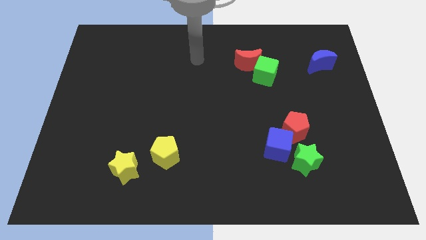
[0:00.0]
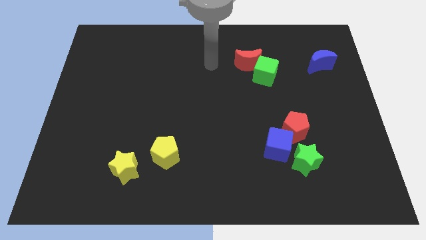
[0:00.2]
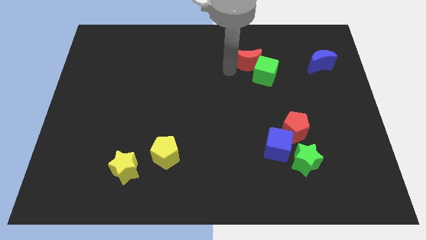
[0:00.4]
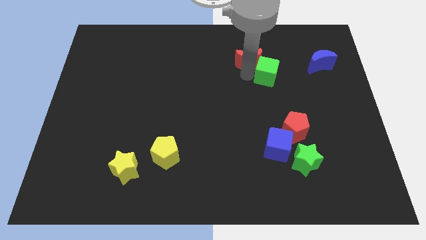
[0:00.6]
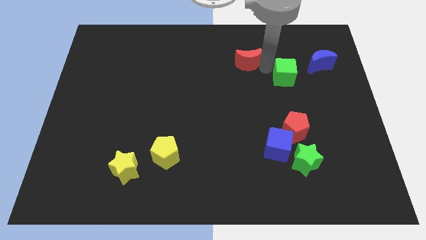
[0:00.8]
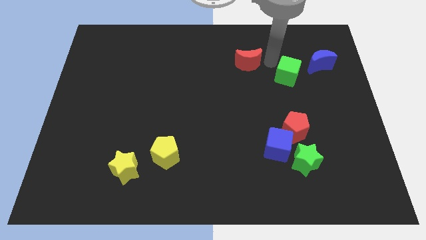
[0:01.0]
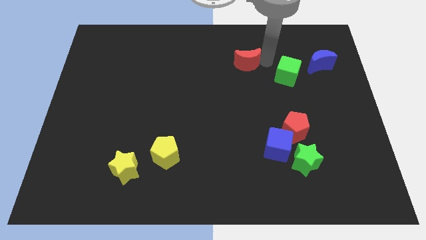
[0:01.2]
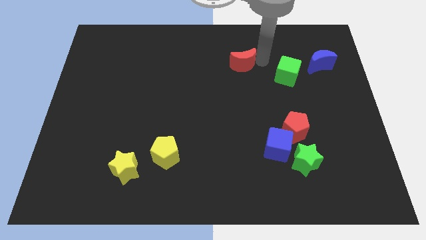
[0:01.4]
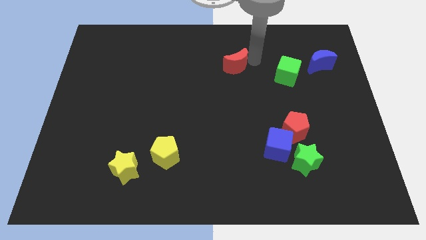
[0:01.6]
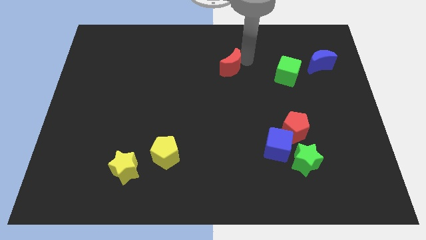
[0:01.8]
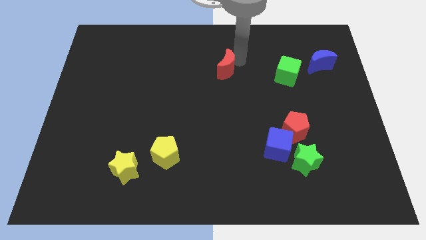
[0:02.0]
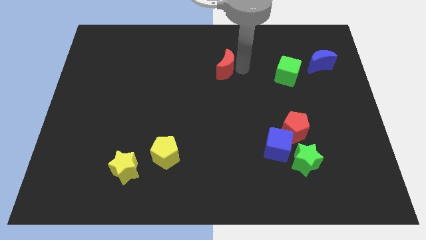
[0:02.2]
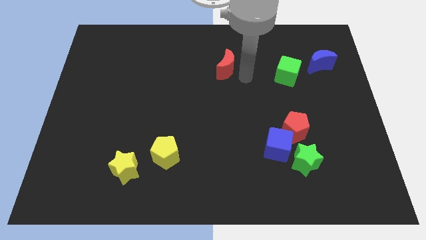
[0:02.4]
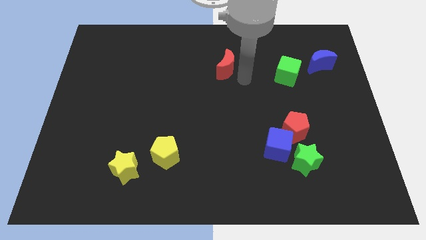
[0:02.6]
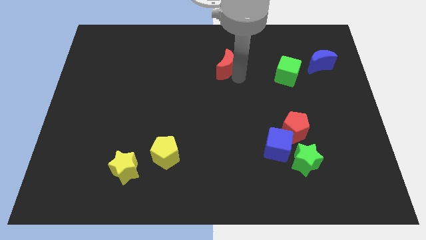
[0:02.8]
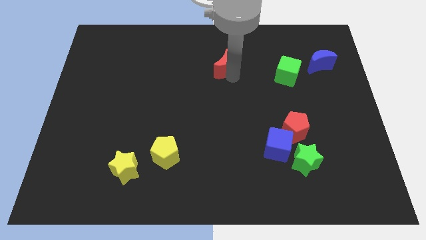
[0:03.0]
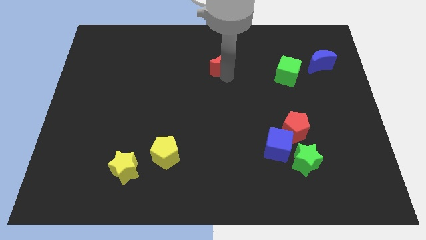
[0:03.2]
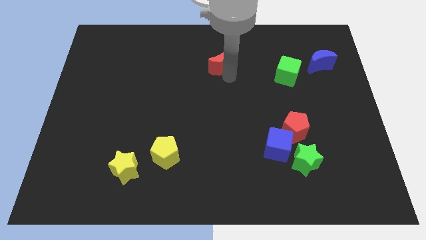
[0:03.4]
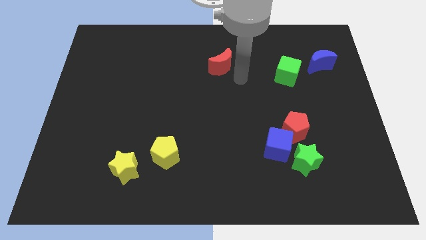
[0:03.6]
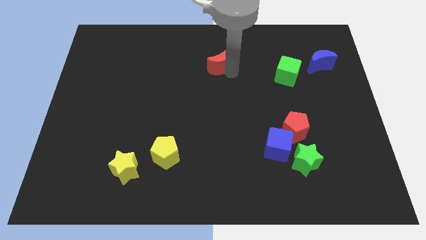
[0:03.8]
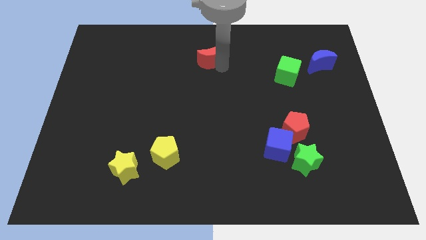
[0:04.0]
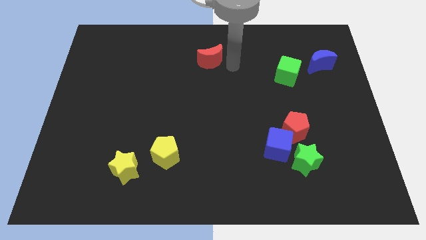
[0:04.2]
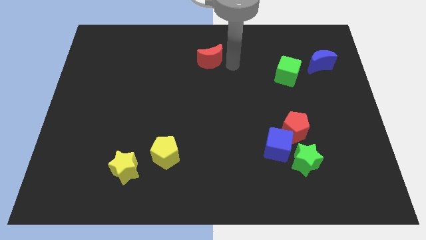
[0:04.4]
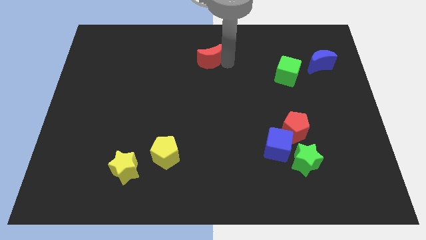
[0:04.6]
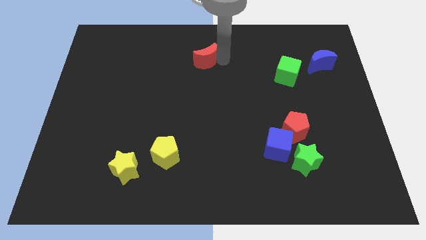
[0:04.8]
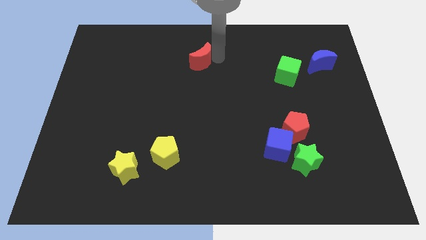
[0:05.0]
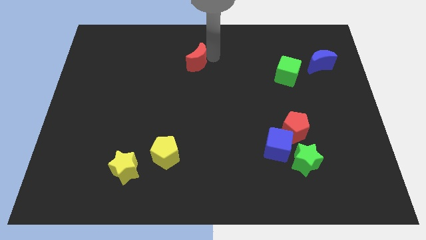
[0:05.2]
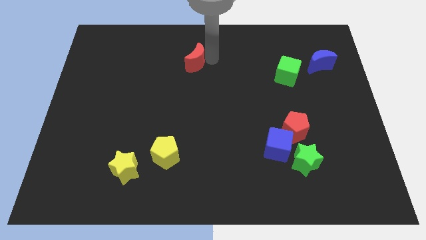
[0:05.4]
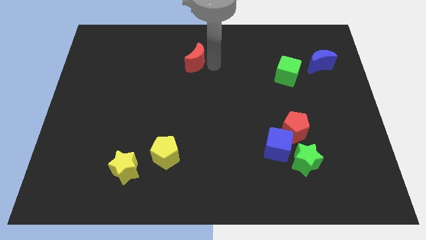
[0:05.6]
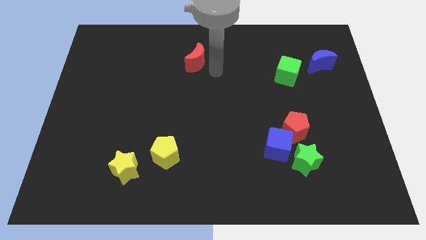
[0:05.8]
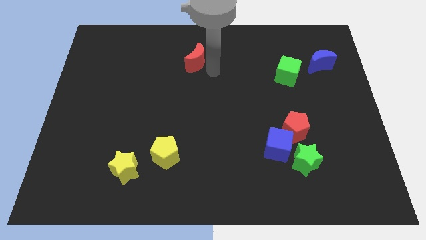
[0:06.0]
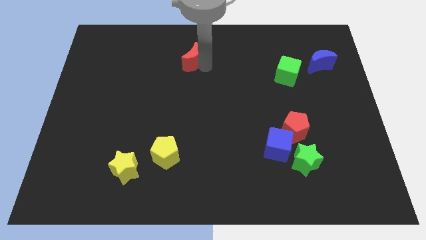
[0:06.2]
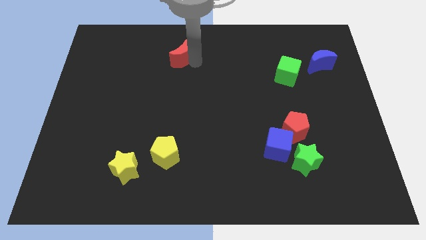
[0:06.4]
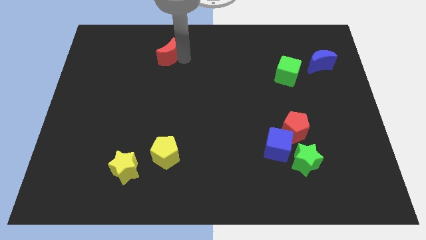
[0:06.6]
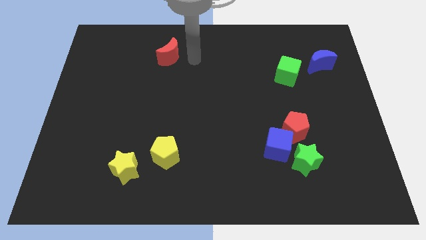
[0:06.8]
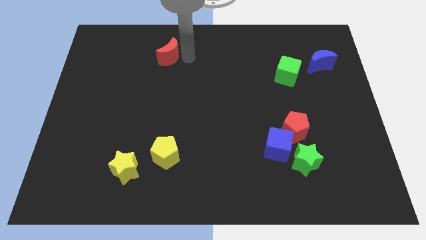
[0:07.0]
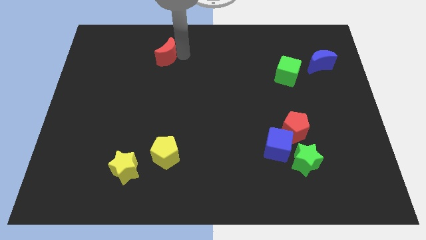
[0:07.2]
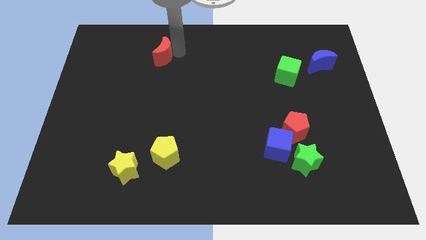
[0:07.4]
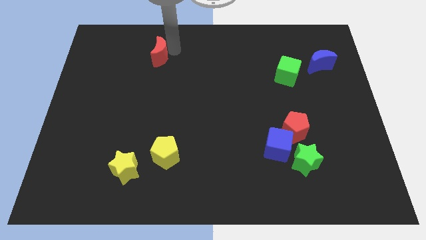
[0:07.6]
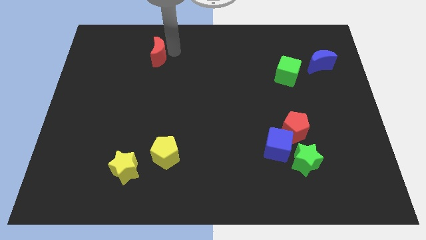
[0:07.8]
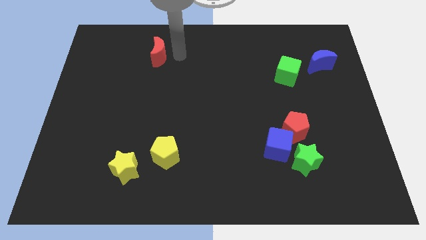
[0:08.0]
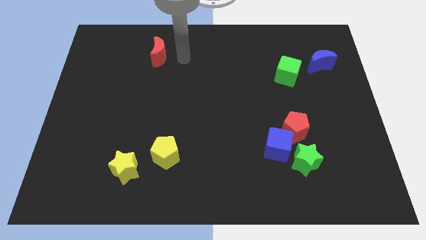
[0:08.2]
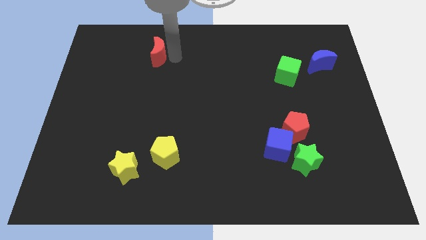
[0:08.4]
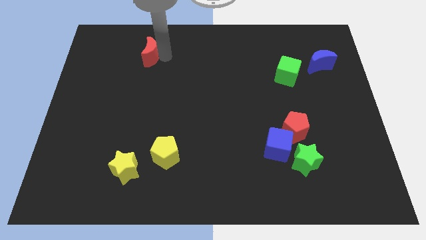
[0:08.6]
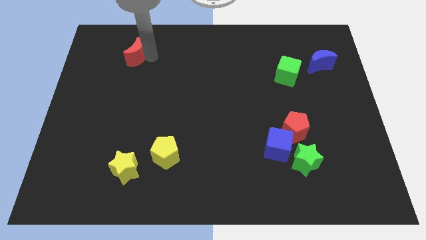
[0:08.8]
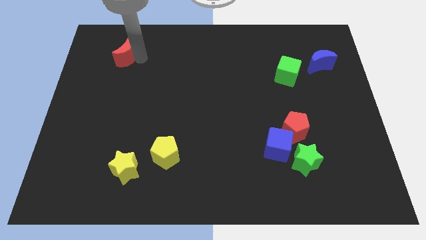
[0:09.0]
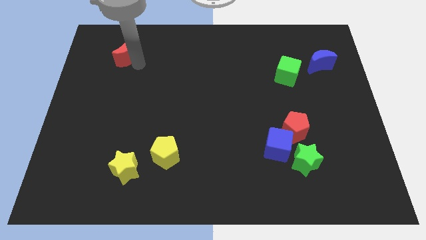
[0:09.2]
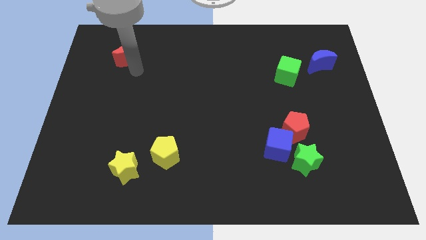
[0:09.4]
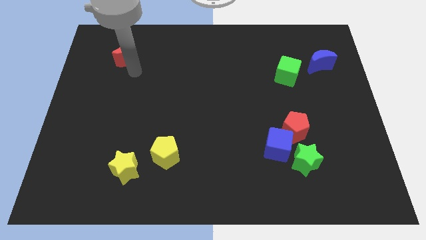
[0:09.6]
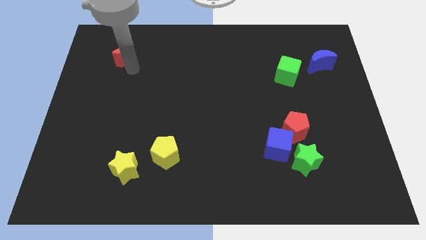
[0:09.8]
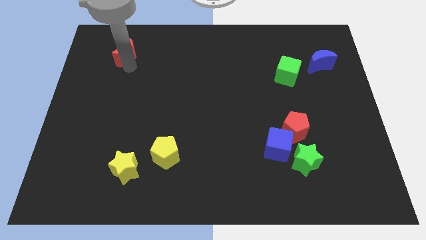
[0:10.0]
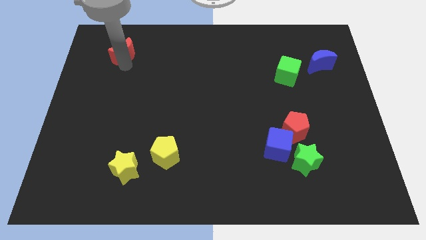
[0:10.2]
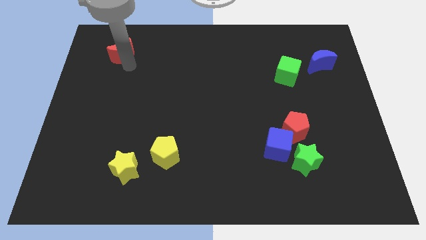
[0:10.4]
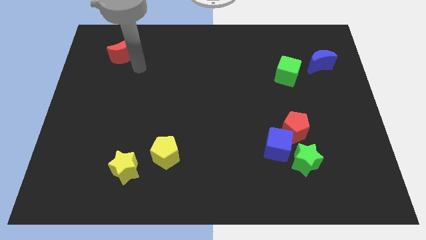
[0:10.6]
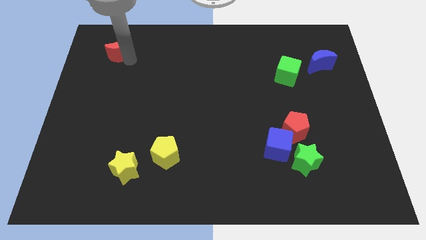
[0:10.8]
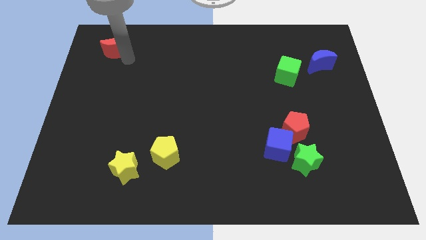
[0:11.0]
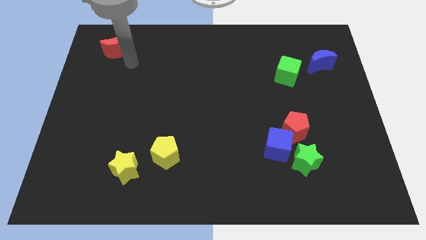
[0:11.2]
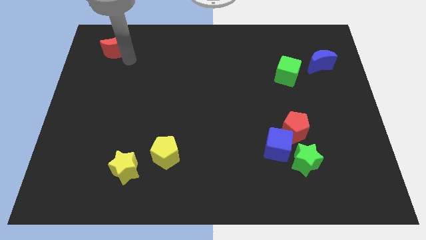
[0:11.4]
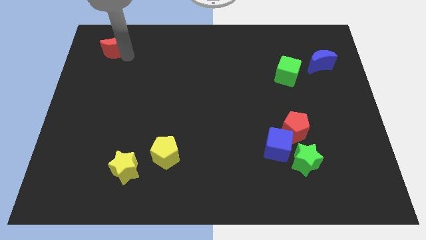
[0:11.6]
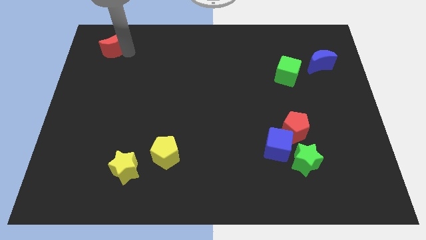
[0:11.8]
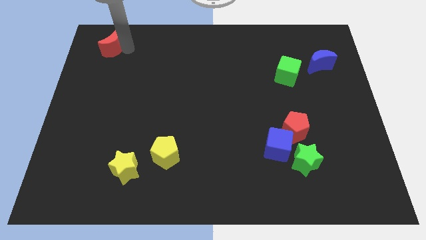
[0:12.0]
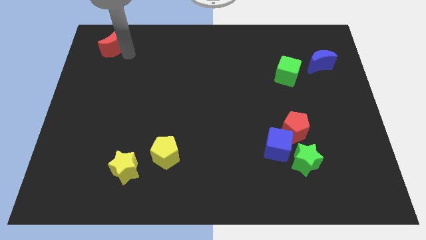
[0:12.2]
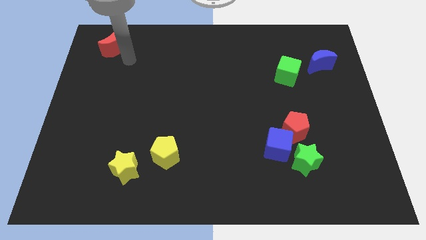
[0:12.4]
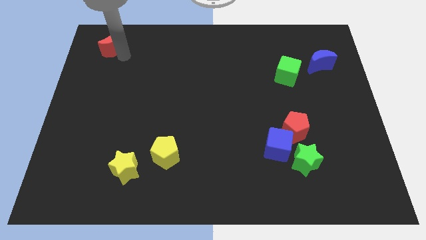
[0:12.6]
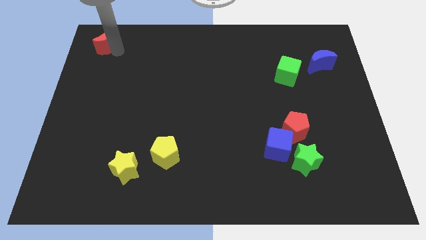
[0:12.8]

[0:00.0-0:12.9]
push the red moon to the upper left corner

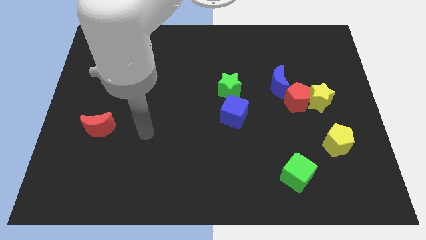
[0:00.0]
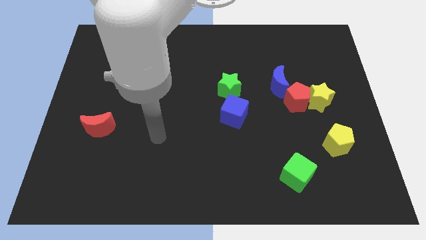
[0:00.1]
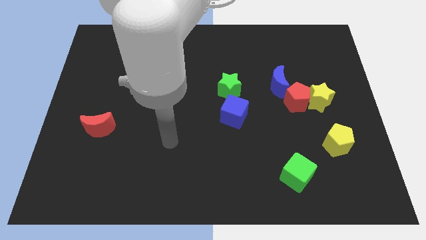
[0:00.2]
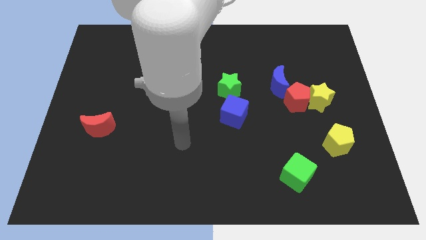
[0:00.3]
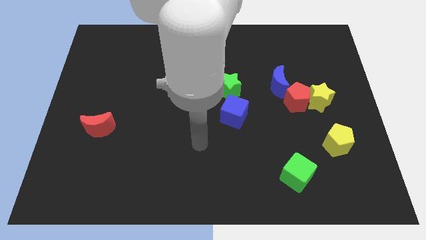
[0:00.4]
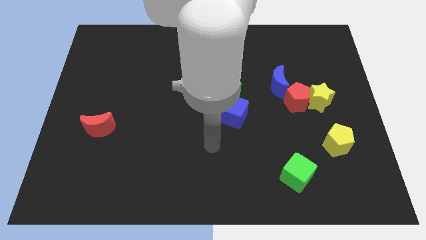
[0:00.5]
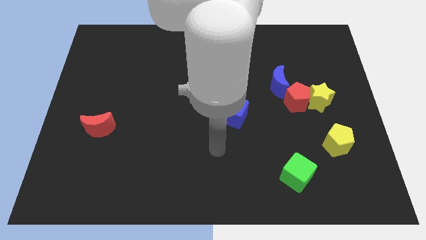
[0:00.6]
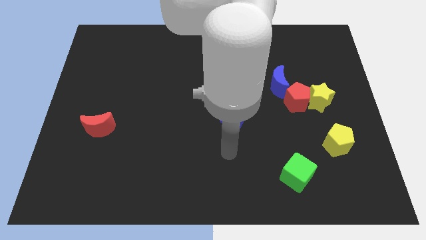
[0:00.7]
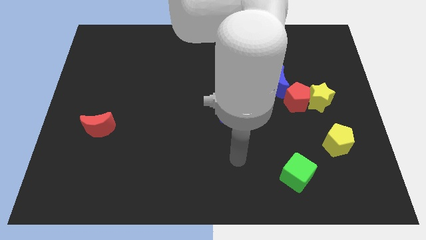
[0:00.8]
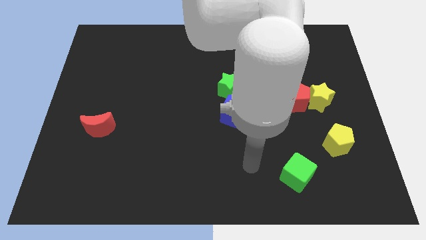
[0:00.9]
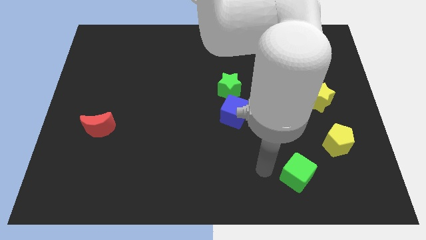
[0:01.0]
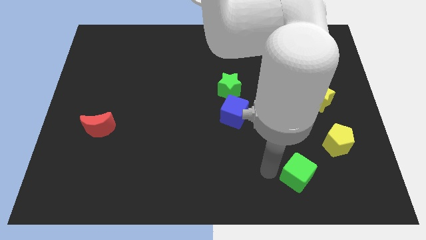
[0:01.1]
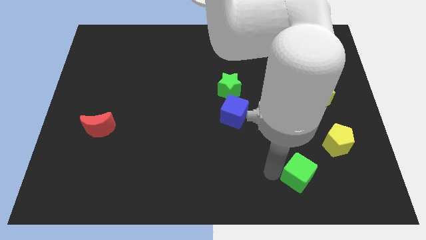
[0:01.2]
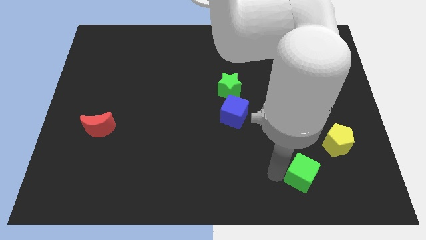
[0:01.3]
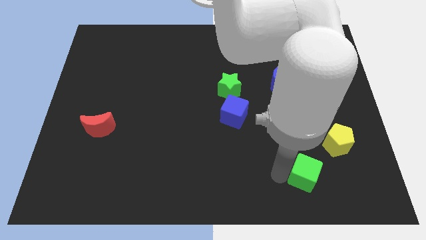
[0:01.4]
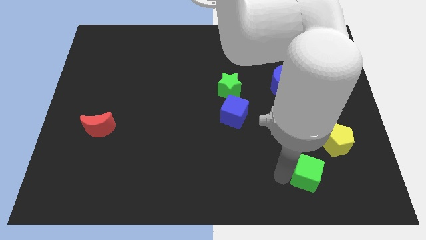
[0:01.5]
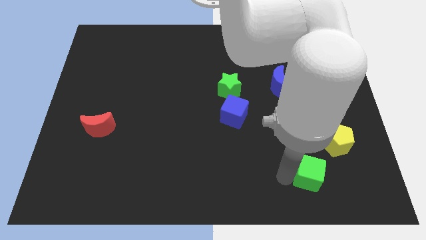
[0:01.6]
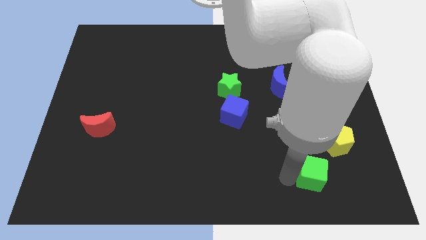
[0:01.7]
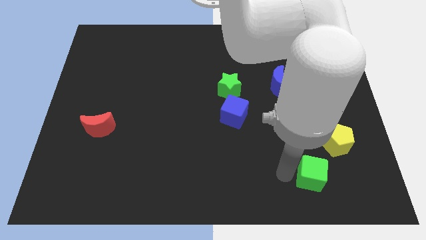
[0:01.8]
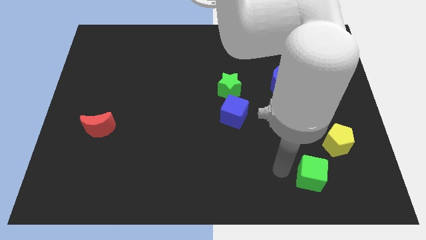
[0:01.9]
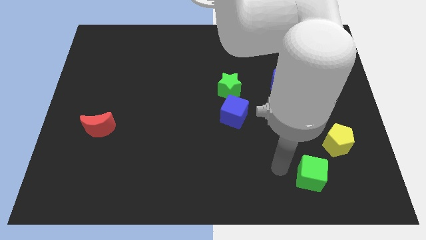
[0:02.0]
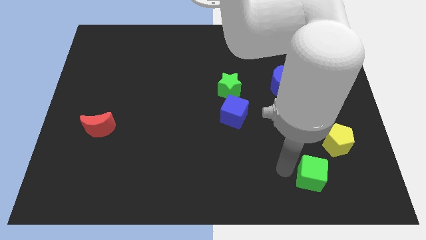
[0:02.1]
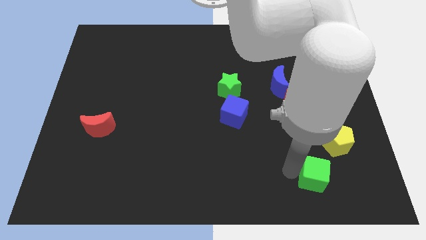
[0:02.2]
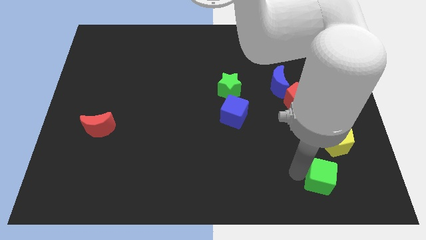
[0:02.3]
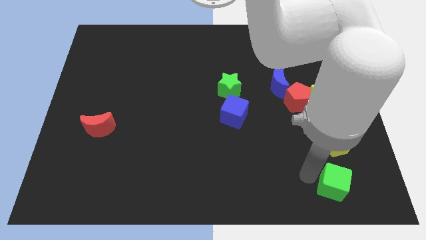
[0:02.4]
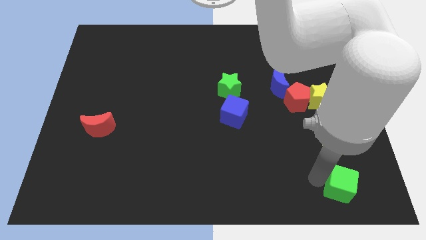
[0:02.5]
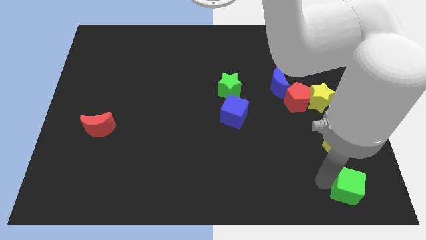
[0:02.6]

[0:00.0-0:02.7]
move the green cube to the lower right corner
